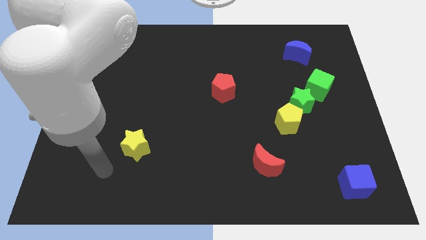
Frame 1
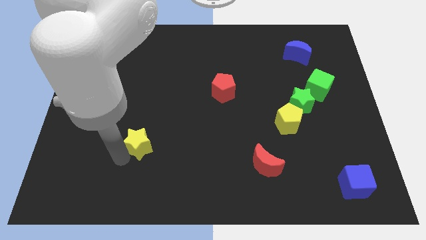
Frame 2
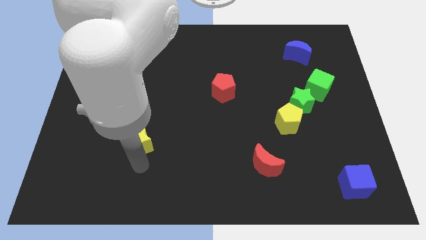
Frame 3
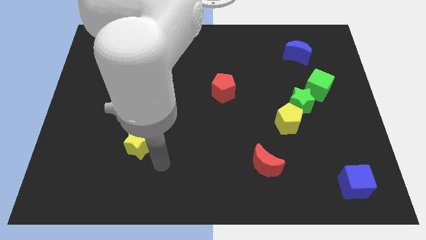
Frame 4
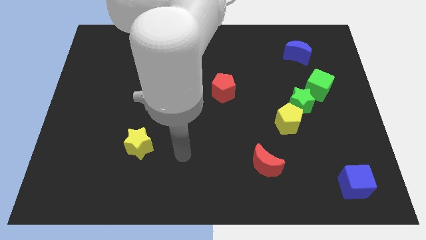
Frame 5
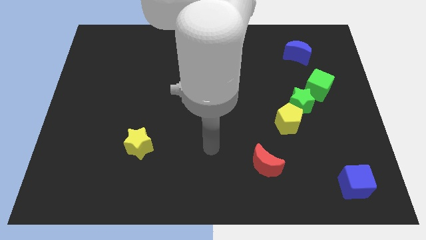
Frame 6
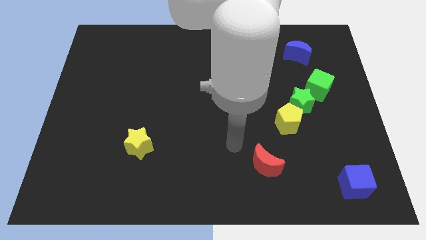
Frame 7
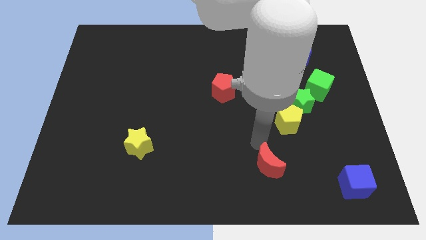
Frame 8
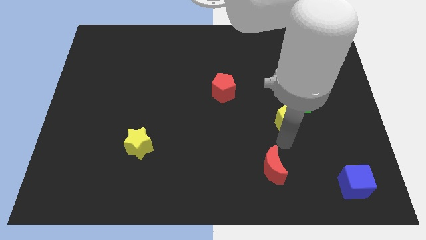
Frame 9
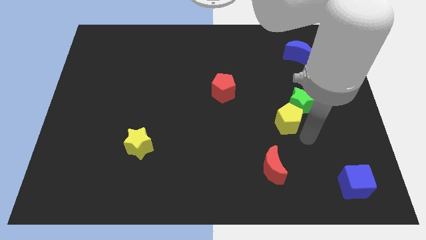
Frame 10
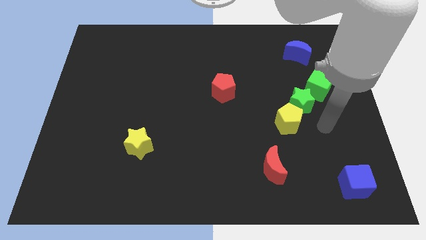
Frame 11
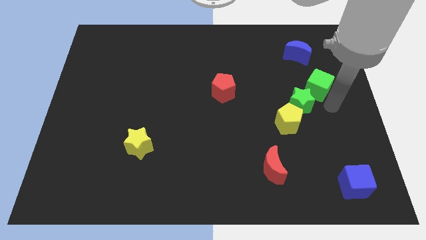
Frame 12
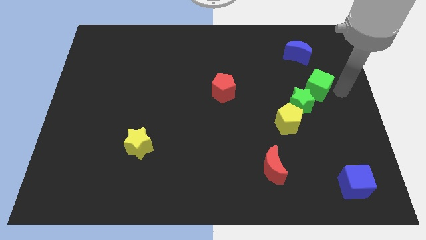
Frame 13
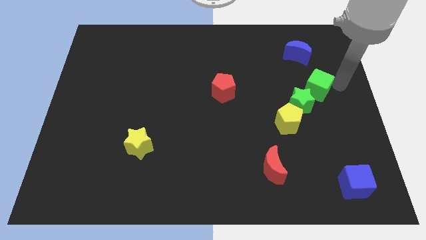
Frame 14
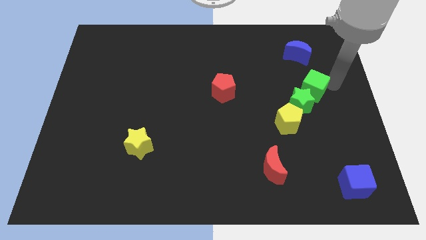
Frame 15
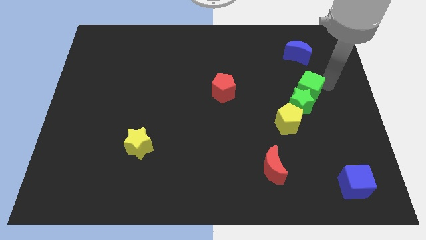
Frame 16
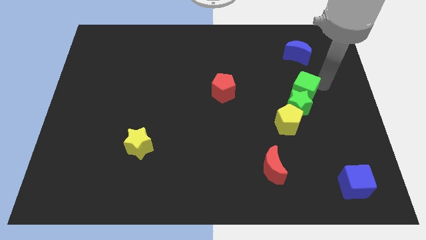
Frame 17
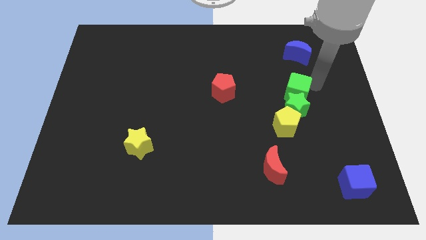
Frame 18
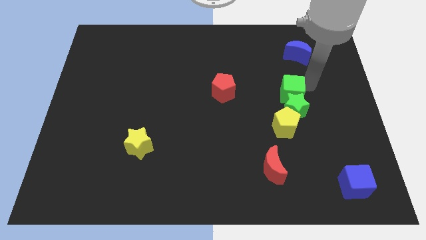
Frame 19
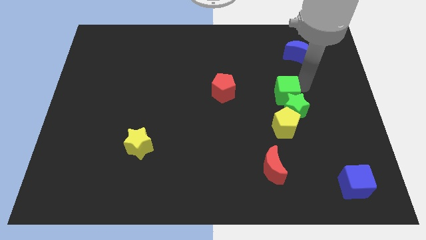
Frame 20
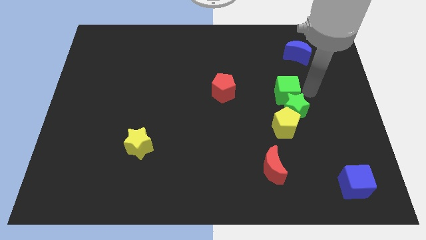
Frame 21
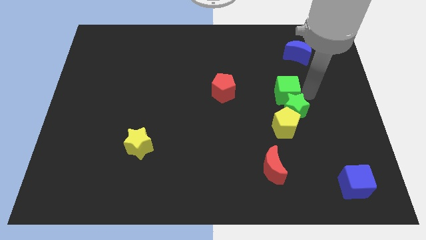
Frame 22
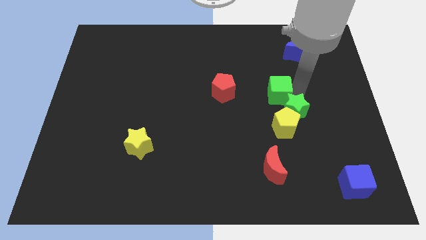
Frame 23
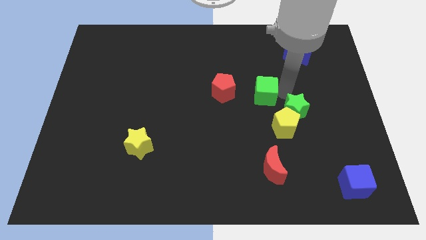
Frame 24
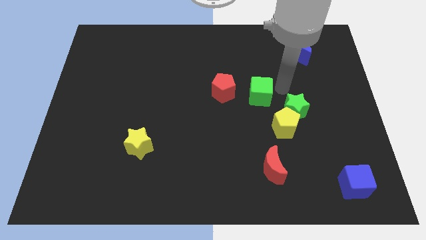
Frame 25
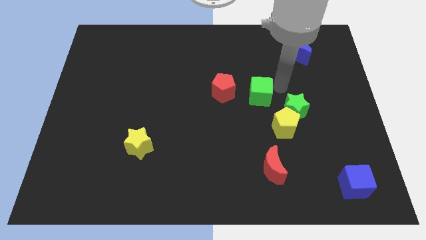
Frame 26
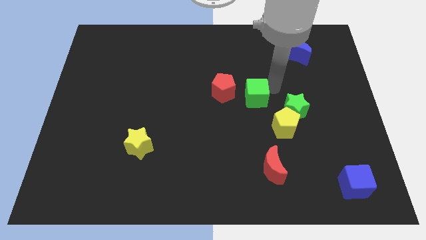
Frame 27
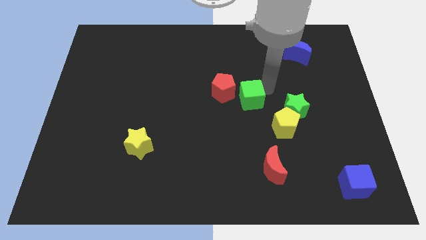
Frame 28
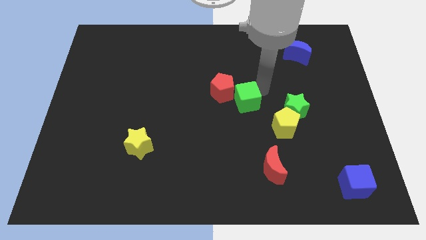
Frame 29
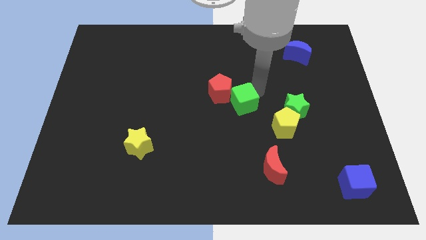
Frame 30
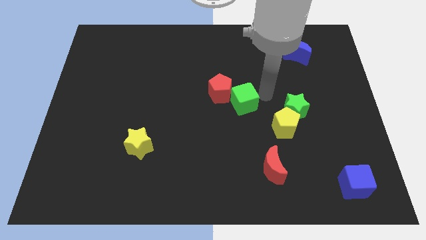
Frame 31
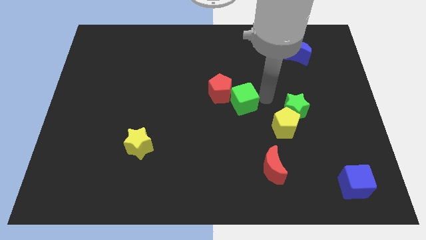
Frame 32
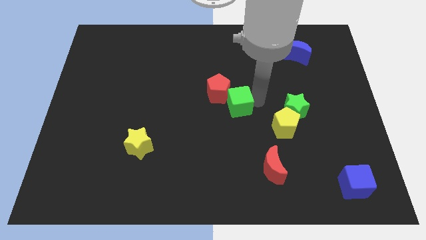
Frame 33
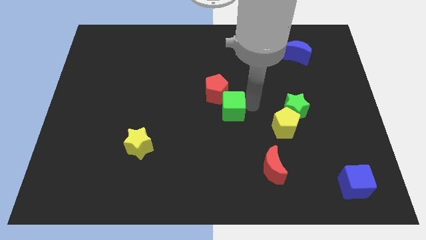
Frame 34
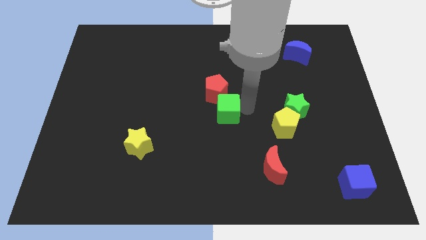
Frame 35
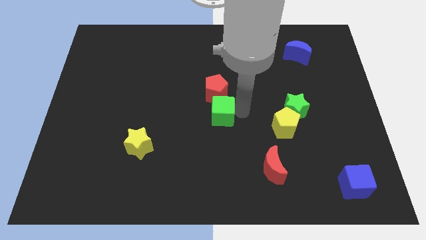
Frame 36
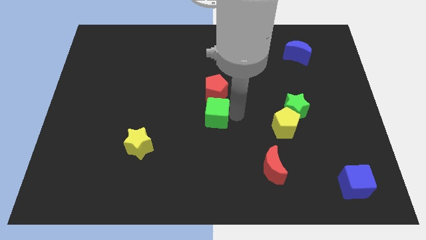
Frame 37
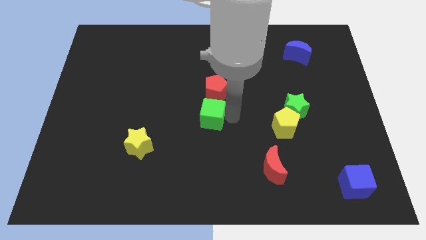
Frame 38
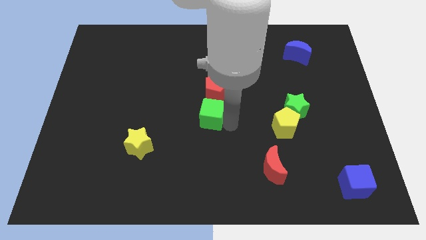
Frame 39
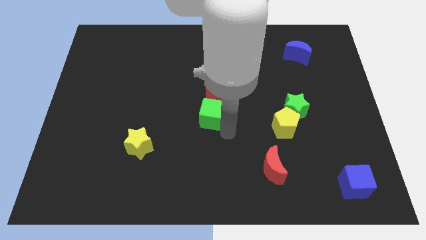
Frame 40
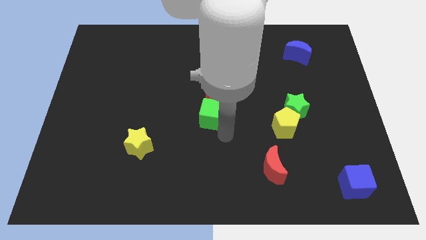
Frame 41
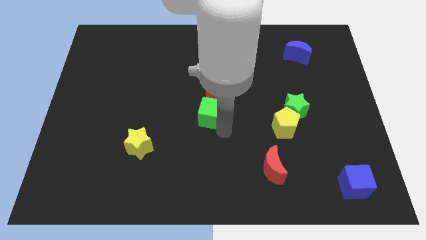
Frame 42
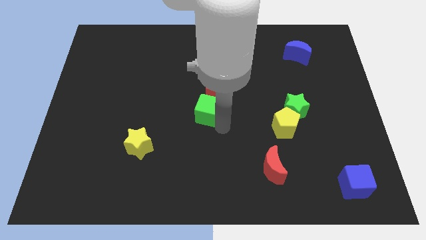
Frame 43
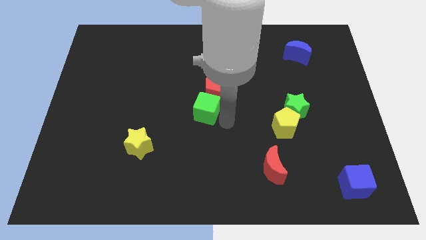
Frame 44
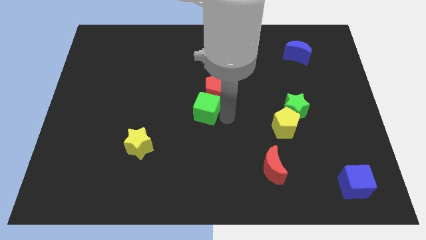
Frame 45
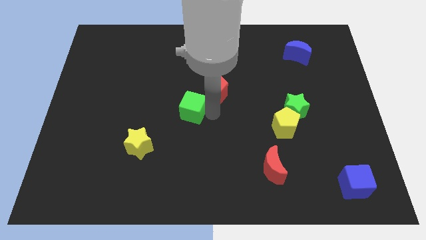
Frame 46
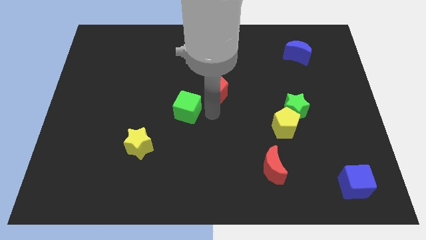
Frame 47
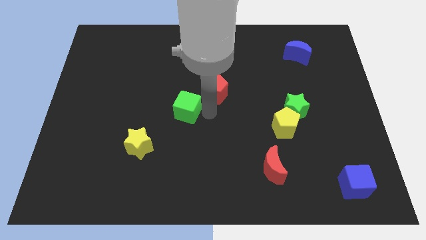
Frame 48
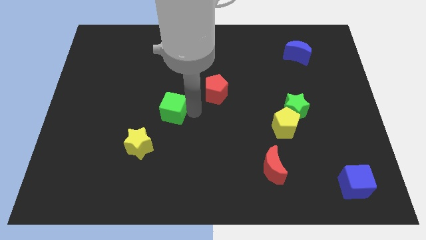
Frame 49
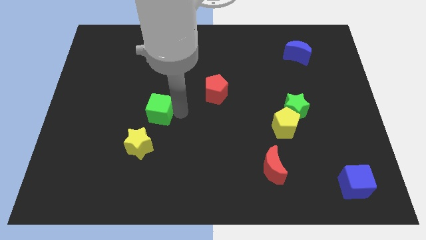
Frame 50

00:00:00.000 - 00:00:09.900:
move the green cube above the yellow star

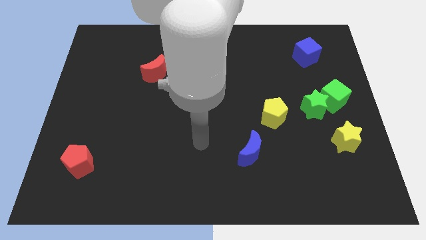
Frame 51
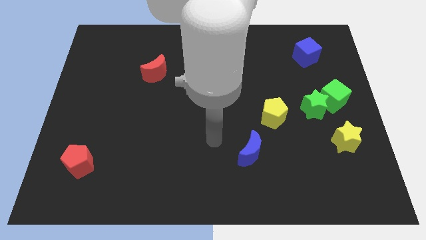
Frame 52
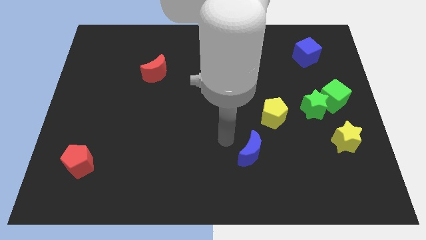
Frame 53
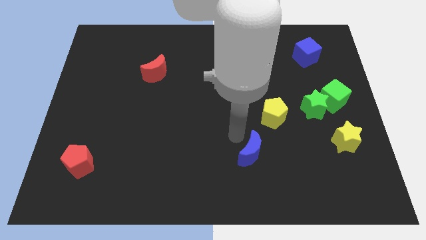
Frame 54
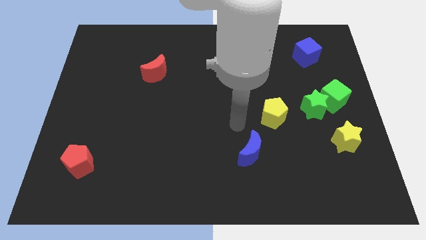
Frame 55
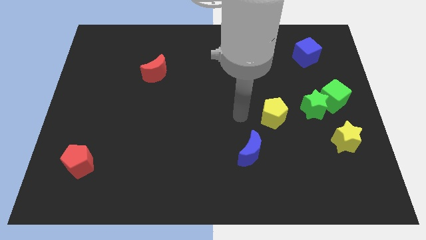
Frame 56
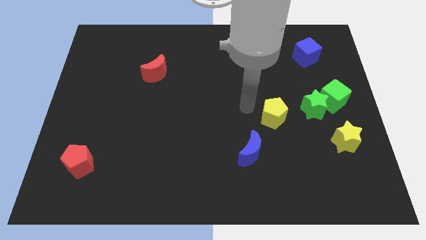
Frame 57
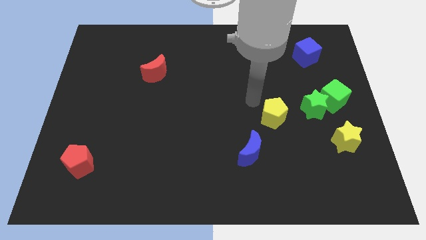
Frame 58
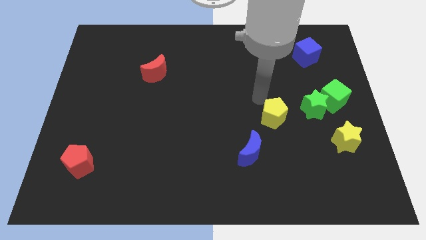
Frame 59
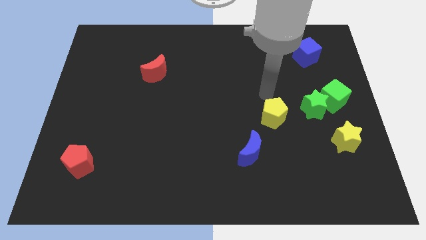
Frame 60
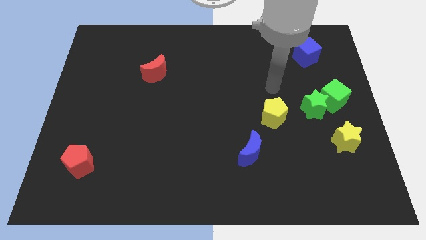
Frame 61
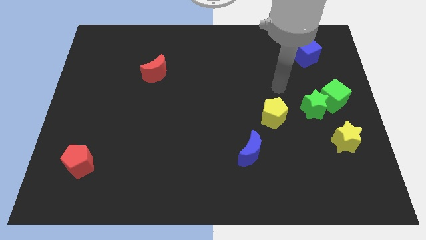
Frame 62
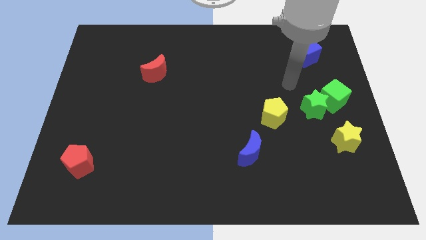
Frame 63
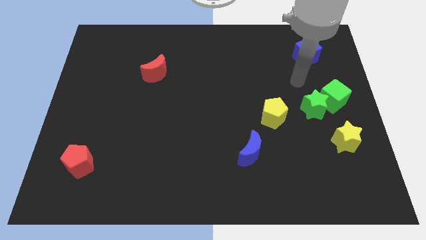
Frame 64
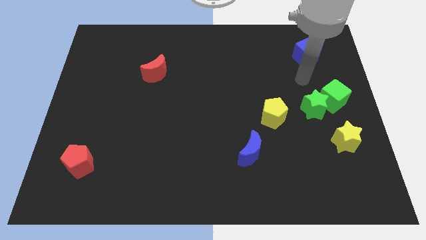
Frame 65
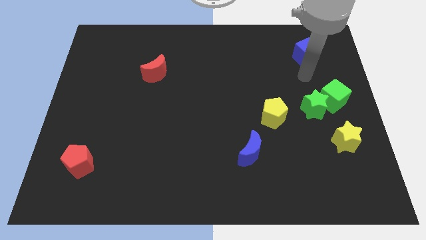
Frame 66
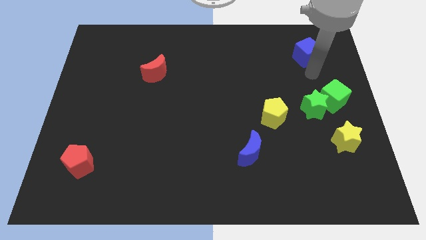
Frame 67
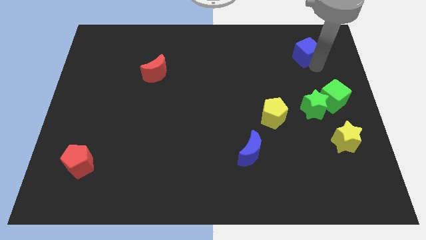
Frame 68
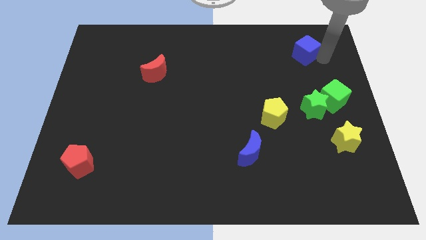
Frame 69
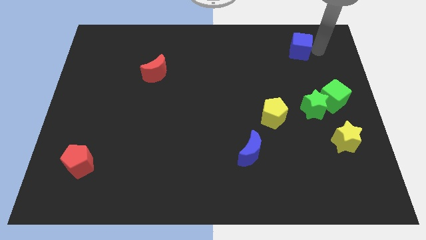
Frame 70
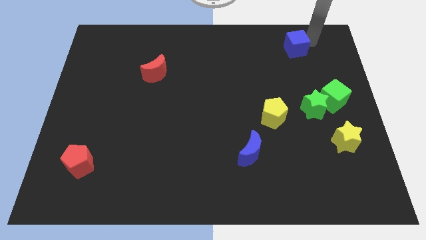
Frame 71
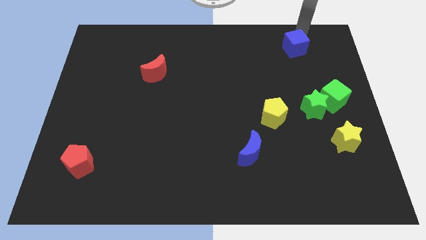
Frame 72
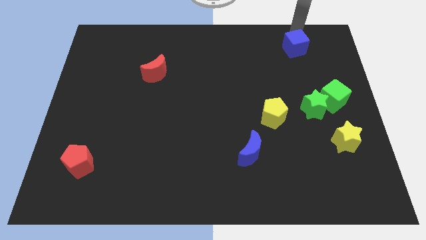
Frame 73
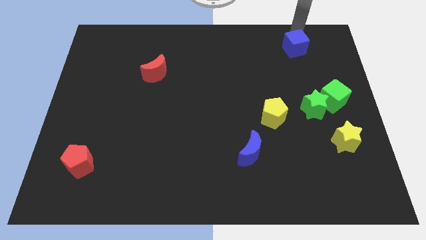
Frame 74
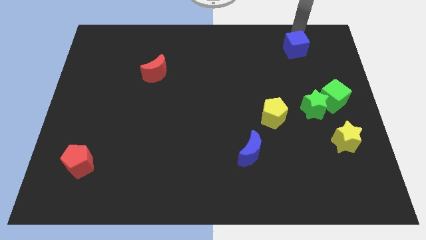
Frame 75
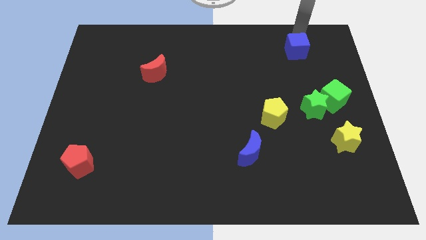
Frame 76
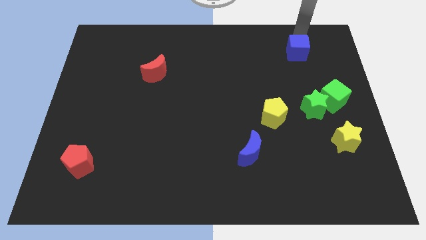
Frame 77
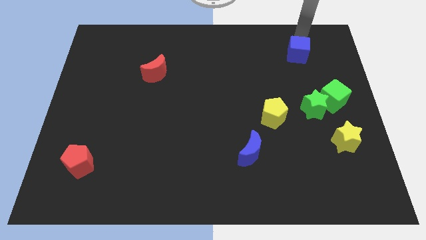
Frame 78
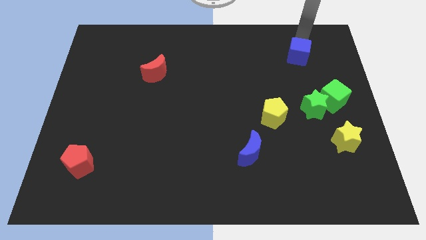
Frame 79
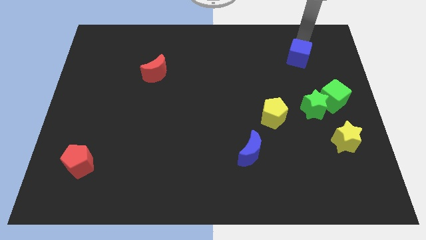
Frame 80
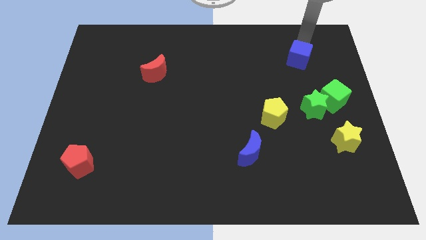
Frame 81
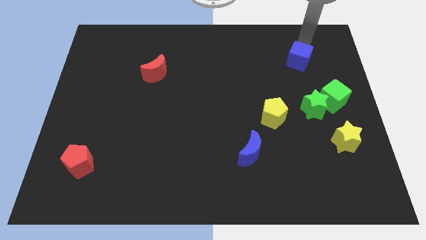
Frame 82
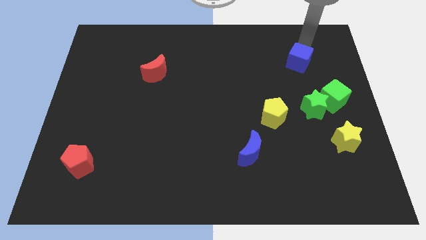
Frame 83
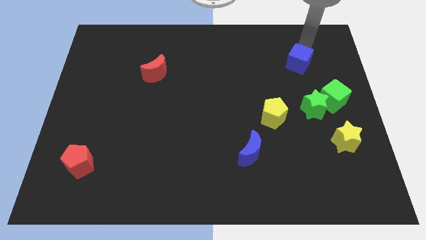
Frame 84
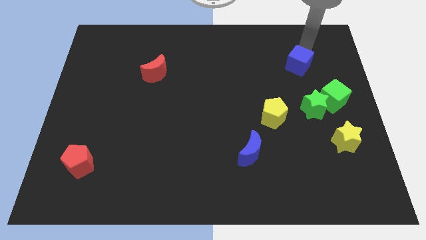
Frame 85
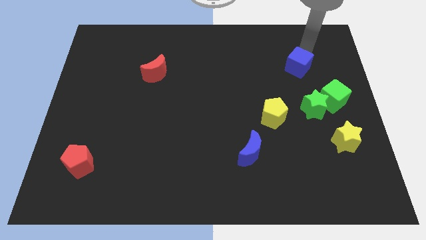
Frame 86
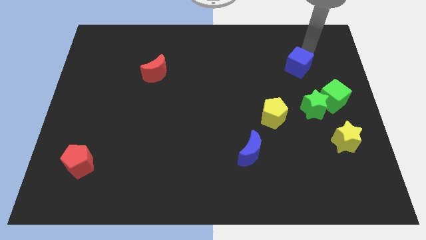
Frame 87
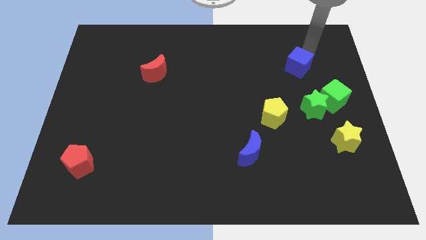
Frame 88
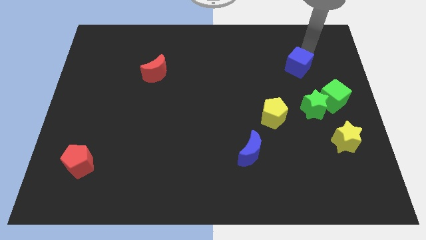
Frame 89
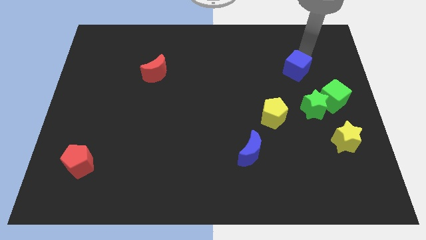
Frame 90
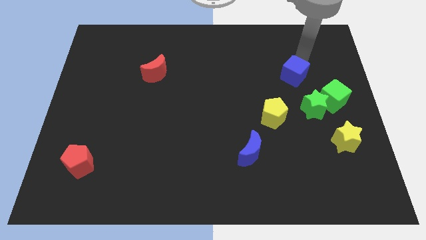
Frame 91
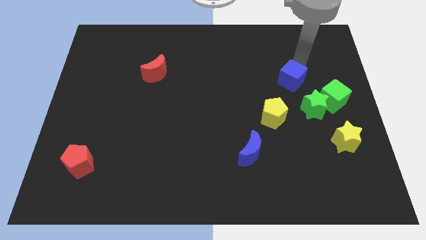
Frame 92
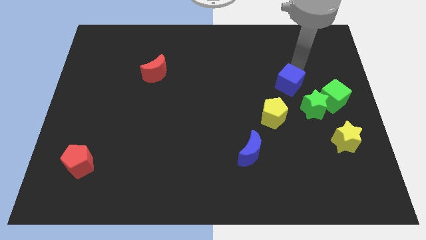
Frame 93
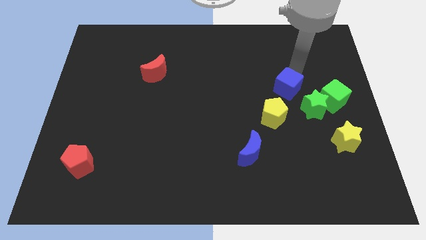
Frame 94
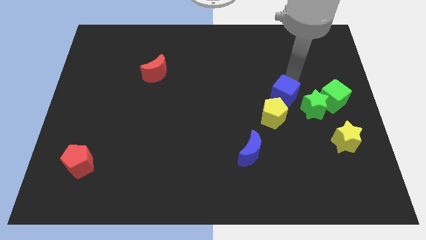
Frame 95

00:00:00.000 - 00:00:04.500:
slide the blue cube left of the green star
